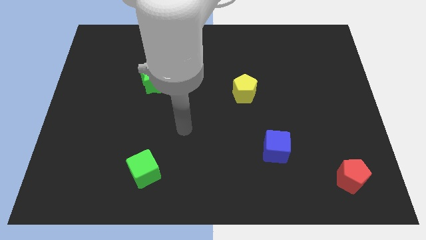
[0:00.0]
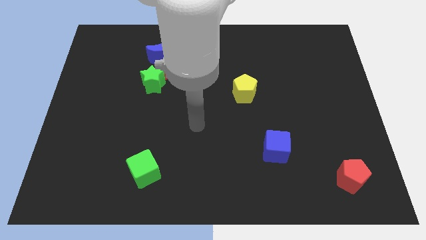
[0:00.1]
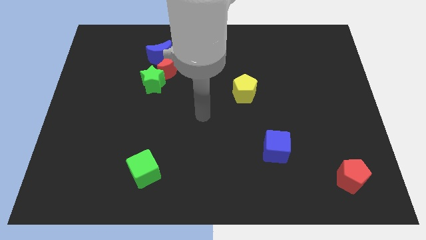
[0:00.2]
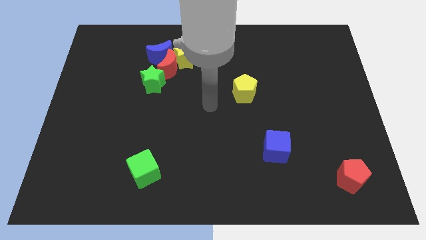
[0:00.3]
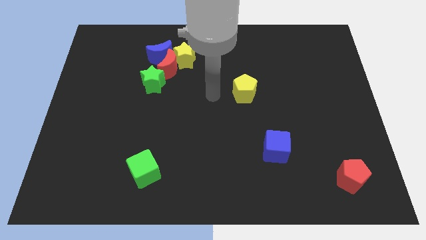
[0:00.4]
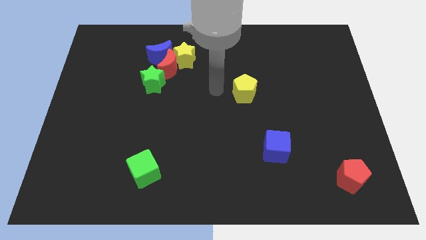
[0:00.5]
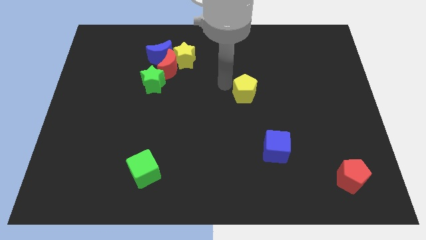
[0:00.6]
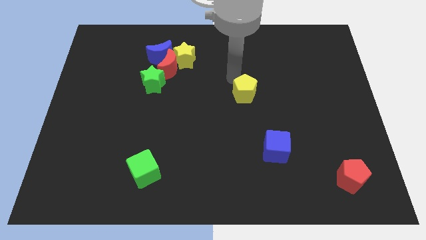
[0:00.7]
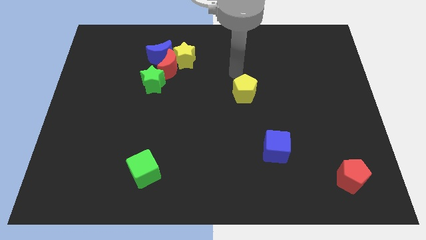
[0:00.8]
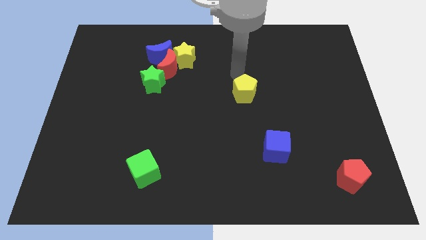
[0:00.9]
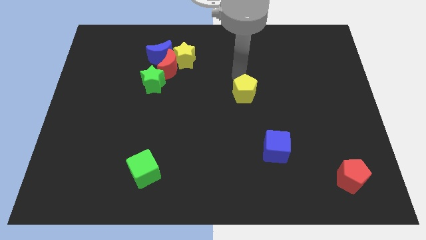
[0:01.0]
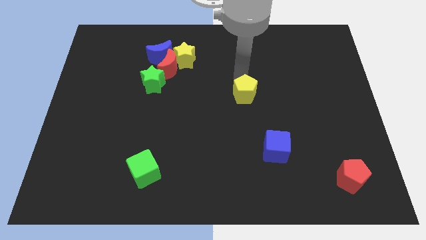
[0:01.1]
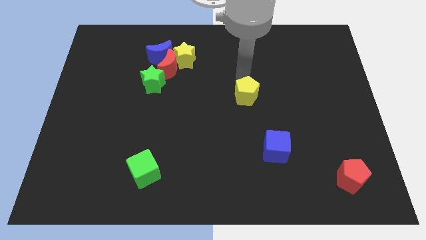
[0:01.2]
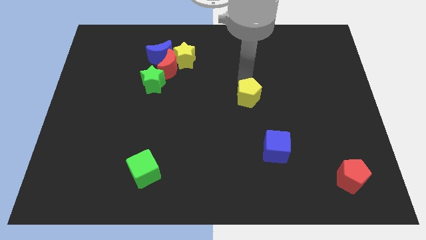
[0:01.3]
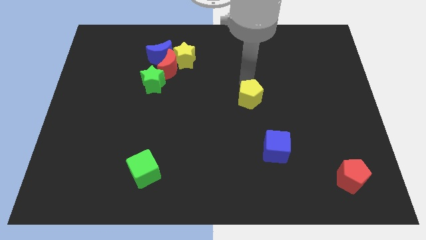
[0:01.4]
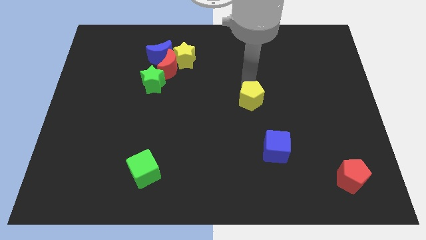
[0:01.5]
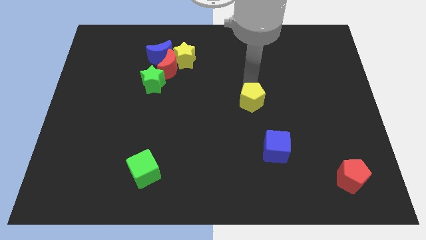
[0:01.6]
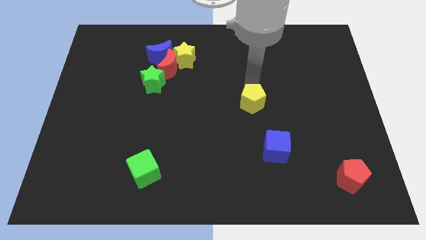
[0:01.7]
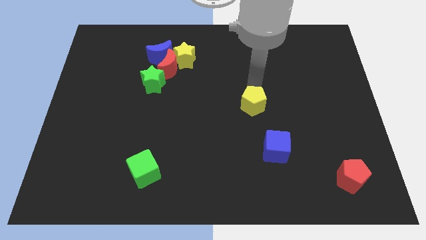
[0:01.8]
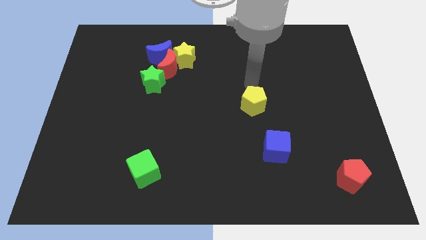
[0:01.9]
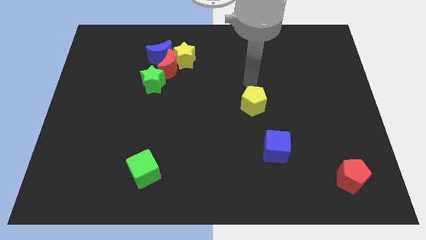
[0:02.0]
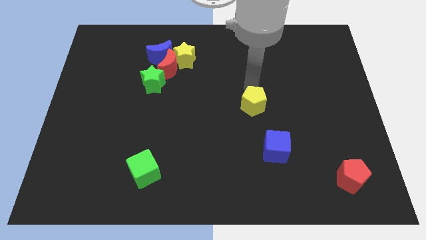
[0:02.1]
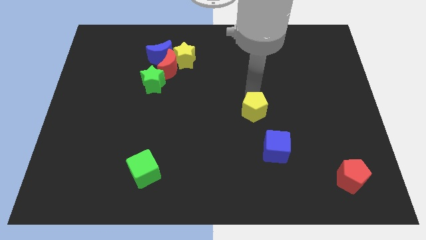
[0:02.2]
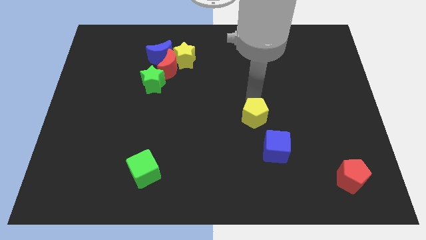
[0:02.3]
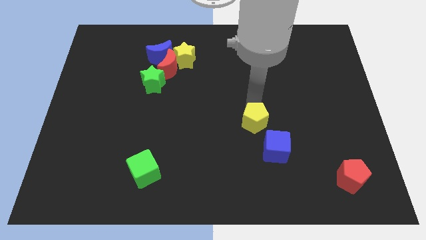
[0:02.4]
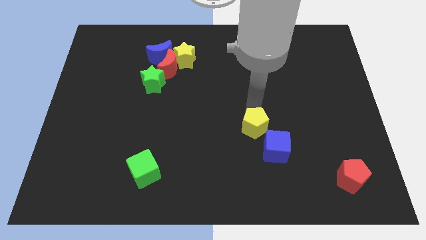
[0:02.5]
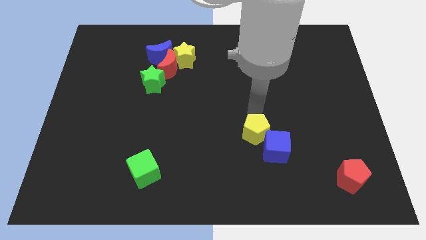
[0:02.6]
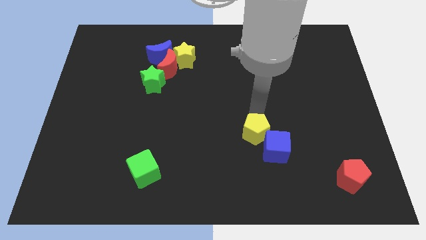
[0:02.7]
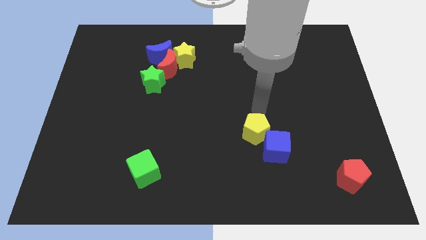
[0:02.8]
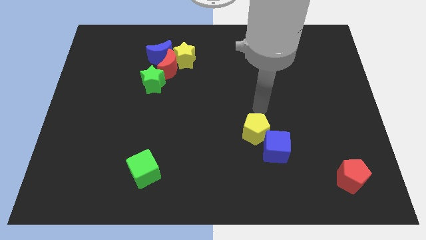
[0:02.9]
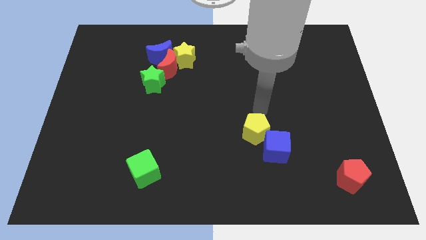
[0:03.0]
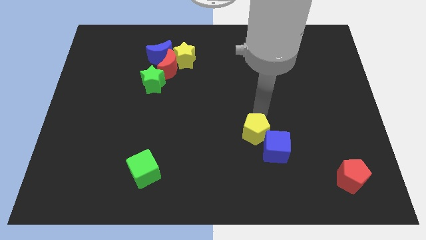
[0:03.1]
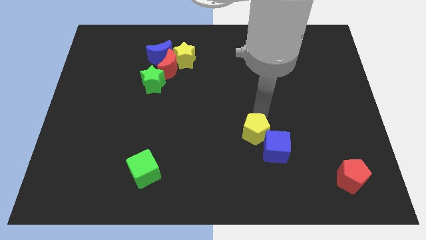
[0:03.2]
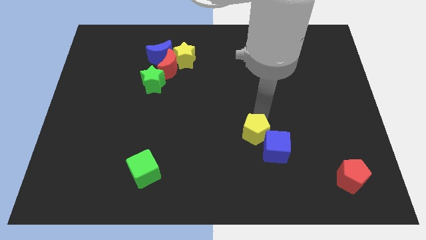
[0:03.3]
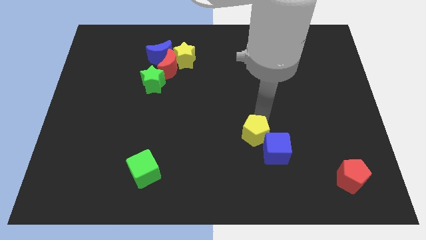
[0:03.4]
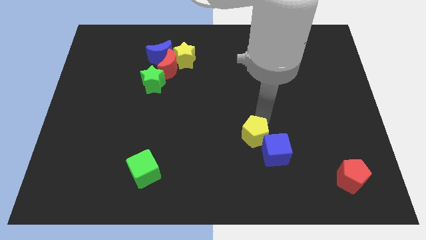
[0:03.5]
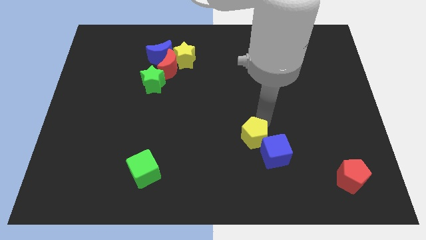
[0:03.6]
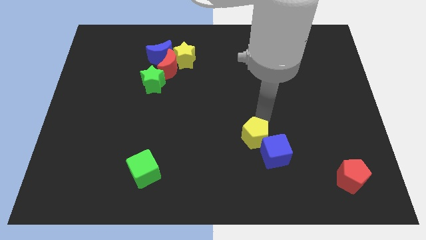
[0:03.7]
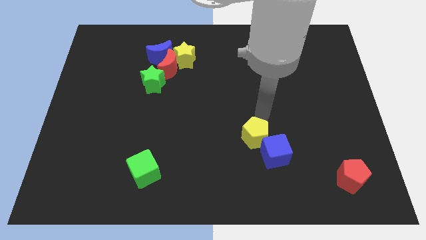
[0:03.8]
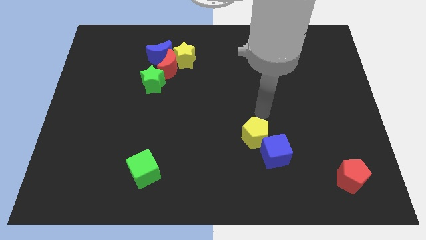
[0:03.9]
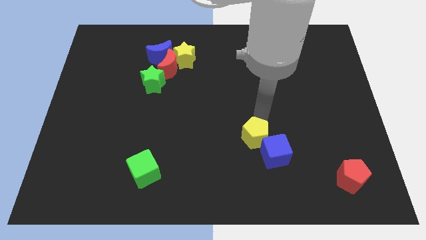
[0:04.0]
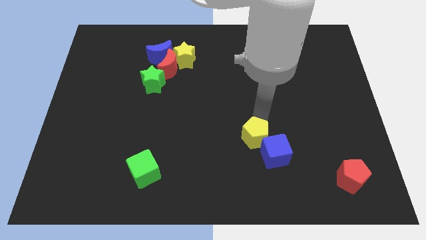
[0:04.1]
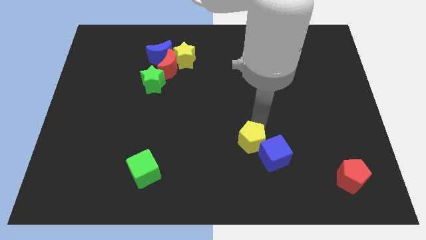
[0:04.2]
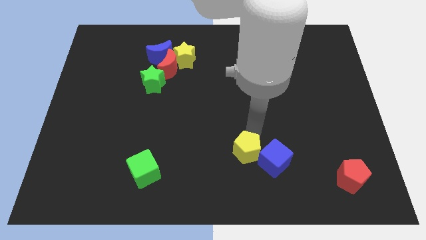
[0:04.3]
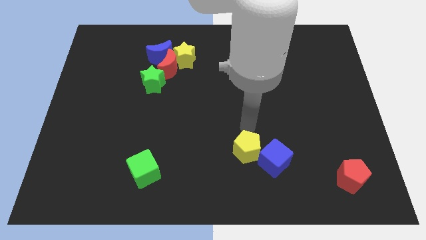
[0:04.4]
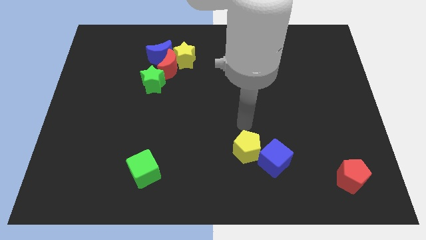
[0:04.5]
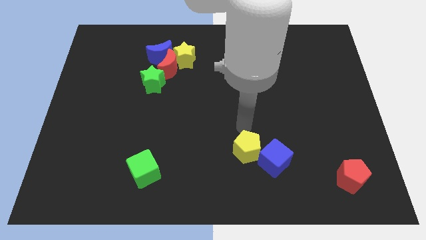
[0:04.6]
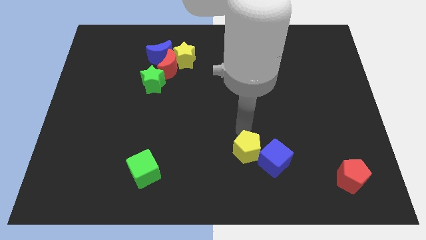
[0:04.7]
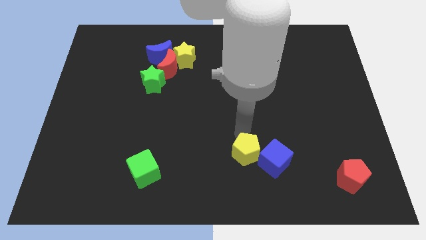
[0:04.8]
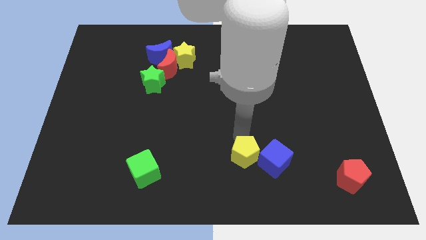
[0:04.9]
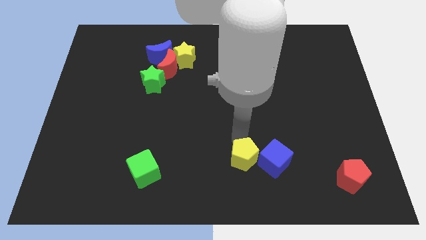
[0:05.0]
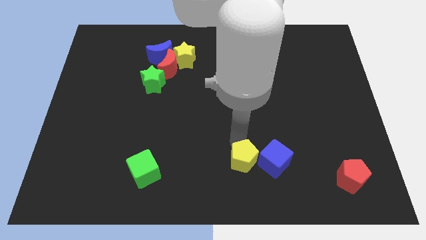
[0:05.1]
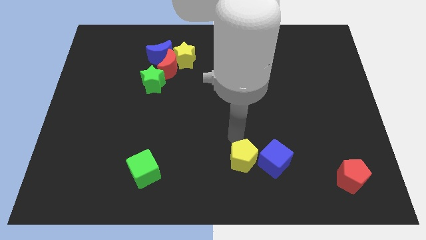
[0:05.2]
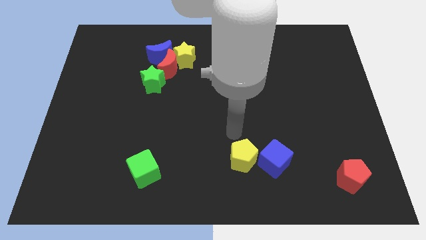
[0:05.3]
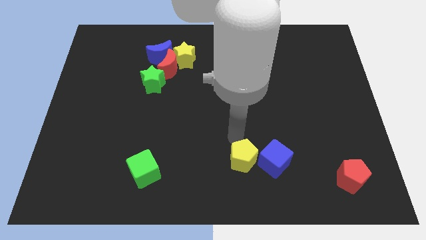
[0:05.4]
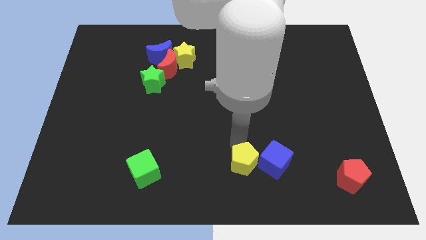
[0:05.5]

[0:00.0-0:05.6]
move the yellow pentagon to the bottom left side of the blue cube

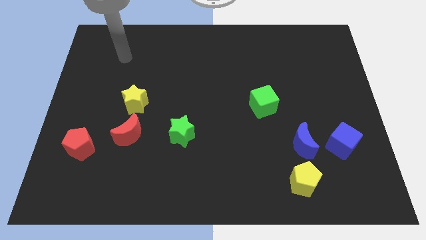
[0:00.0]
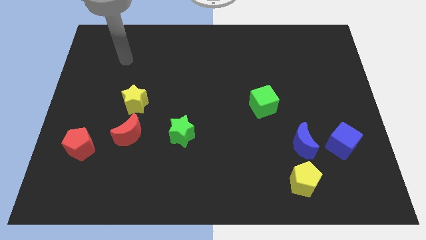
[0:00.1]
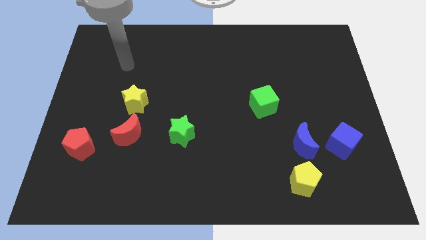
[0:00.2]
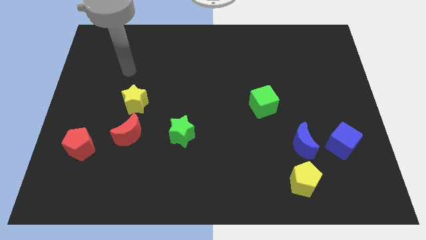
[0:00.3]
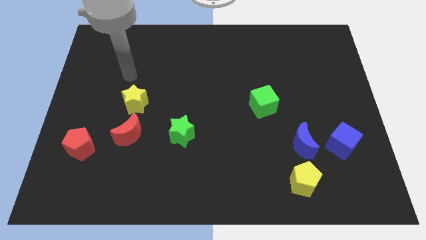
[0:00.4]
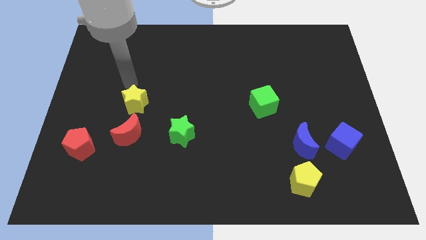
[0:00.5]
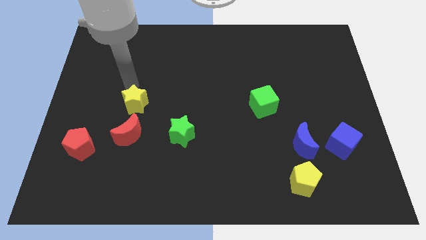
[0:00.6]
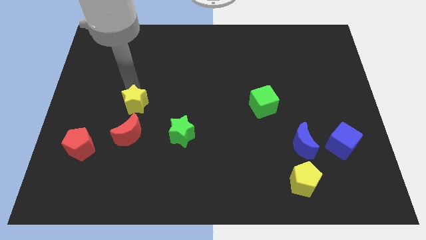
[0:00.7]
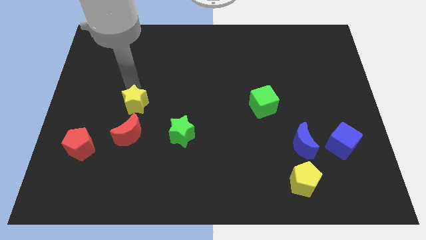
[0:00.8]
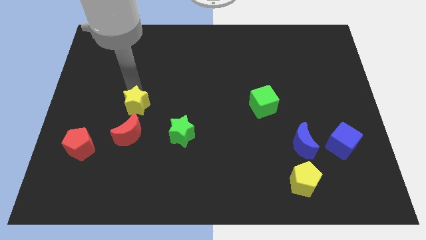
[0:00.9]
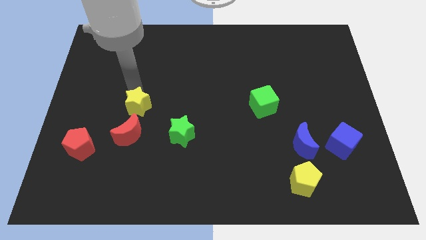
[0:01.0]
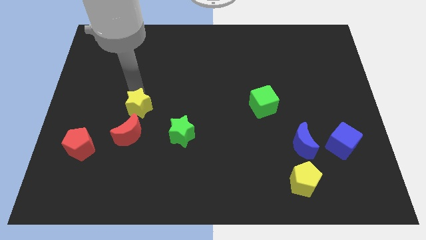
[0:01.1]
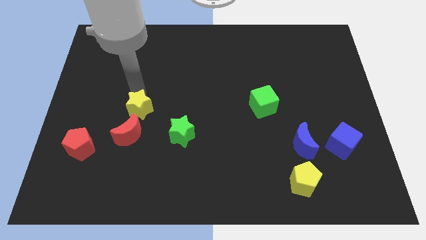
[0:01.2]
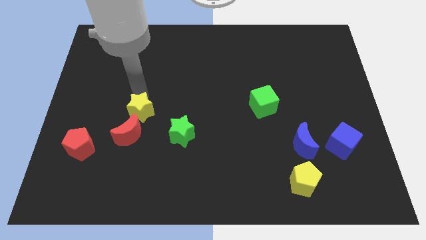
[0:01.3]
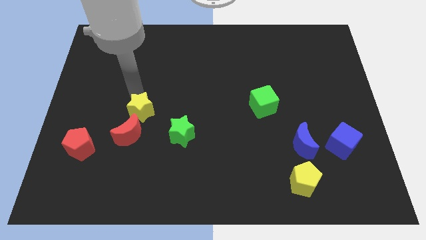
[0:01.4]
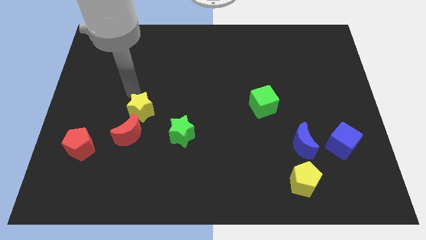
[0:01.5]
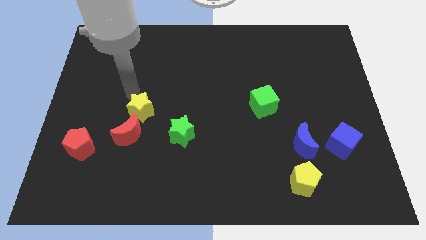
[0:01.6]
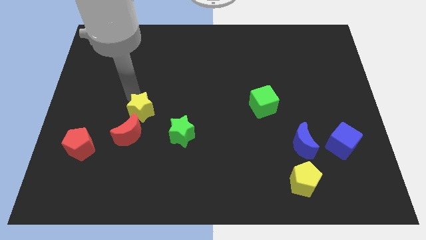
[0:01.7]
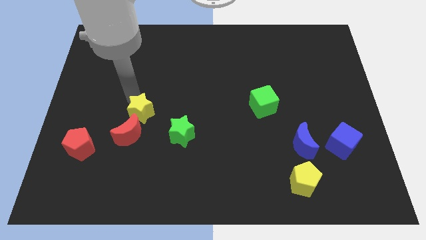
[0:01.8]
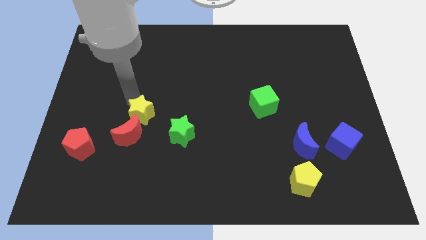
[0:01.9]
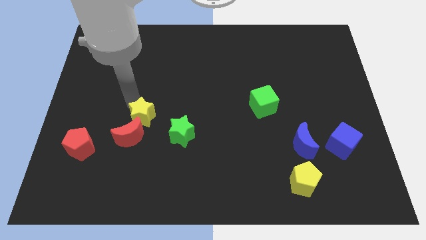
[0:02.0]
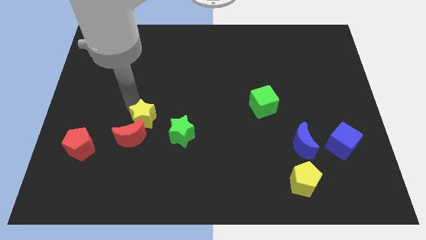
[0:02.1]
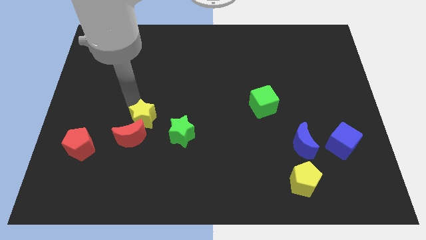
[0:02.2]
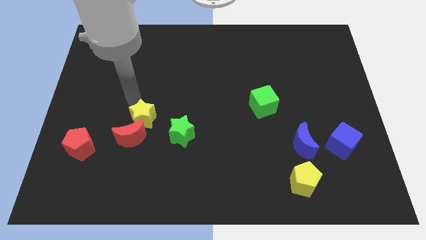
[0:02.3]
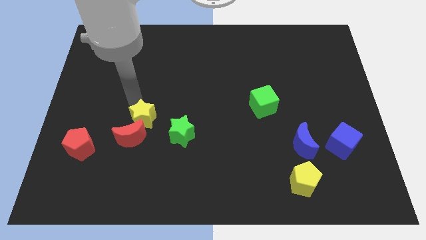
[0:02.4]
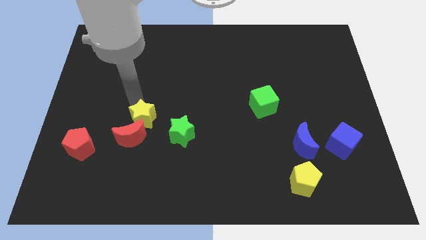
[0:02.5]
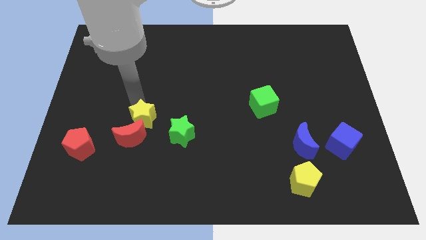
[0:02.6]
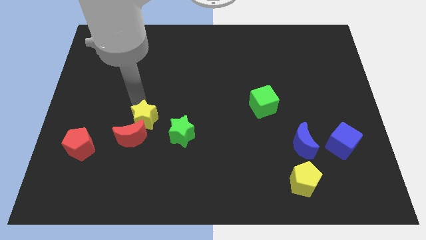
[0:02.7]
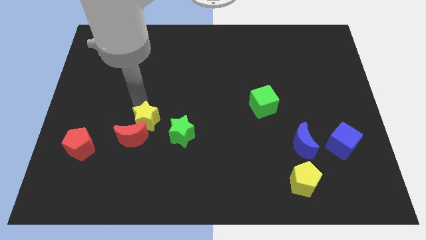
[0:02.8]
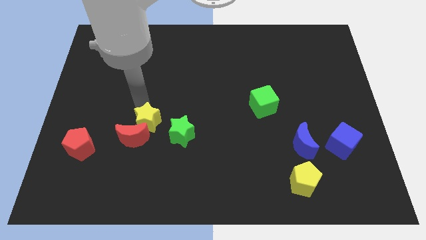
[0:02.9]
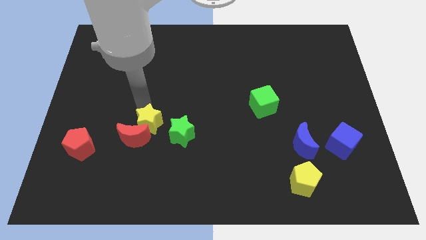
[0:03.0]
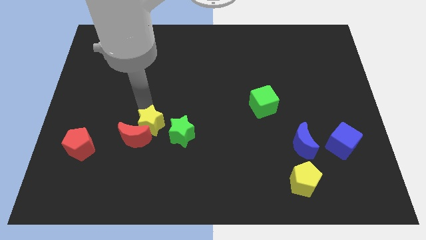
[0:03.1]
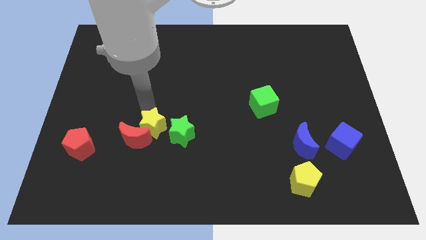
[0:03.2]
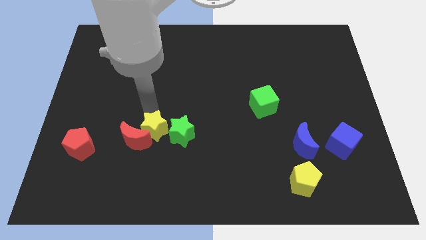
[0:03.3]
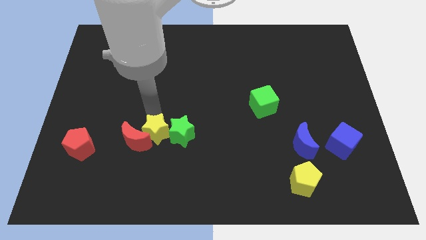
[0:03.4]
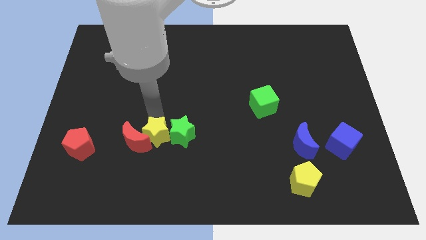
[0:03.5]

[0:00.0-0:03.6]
move the yellow star diagonally down and to the right of the red moon
